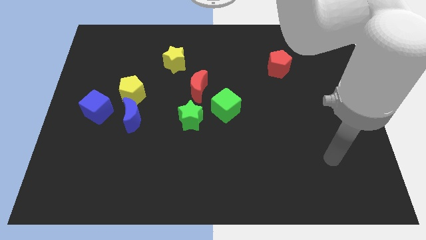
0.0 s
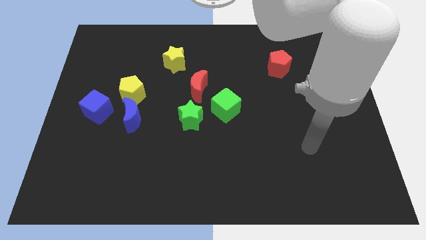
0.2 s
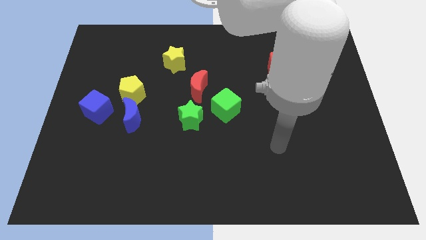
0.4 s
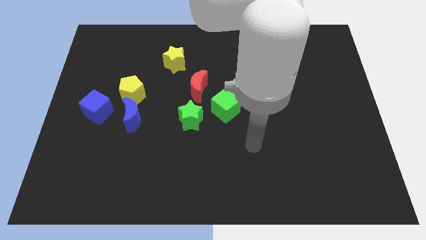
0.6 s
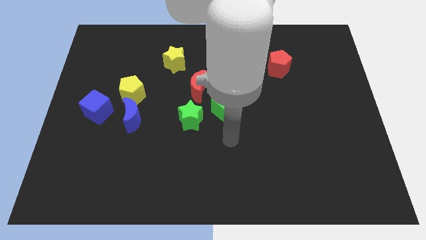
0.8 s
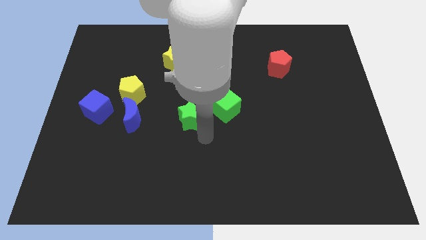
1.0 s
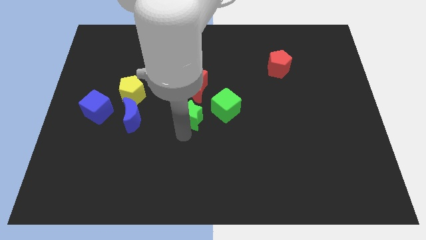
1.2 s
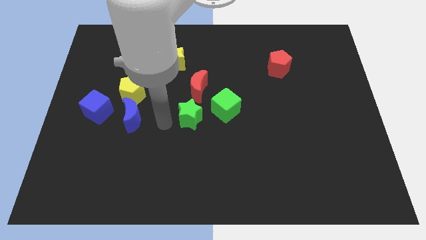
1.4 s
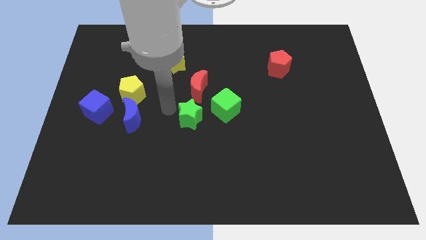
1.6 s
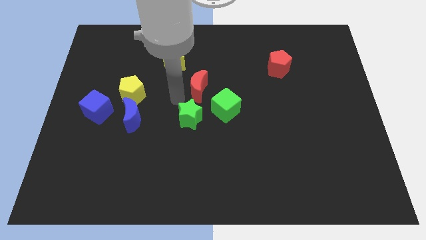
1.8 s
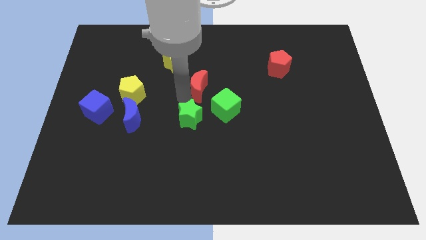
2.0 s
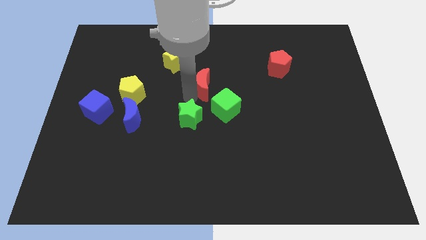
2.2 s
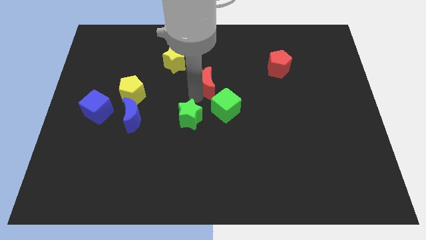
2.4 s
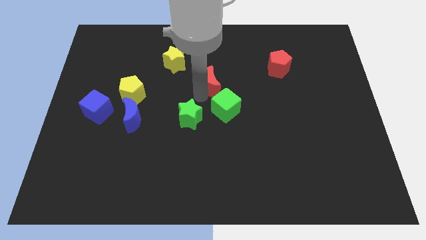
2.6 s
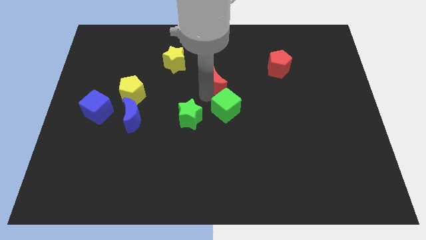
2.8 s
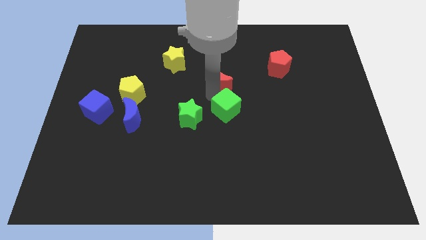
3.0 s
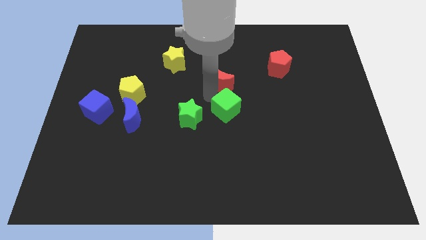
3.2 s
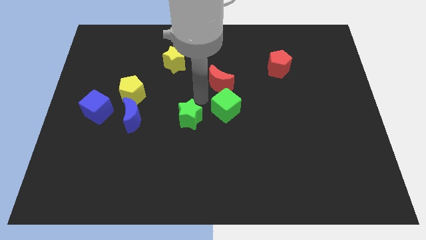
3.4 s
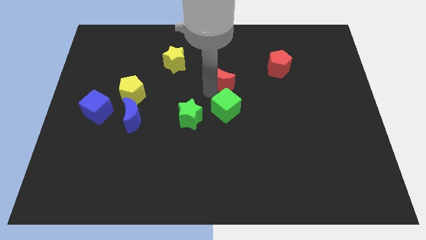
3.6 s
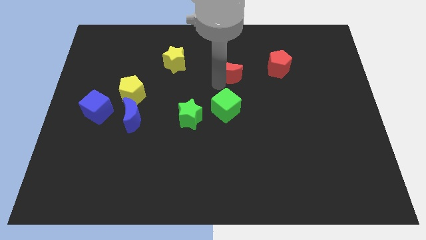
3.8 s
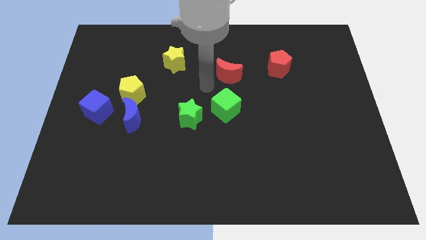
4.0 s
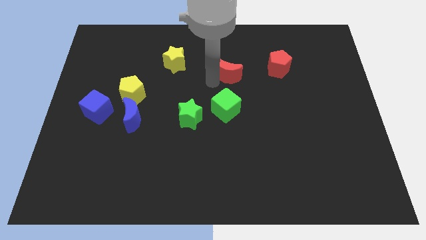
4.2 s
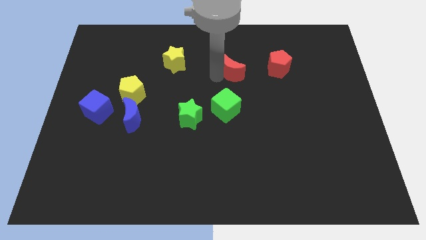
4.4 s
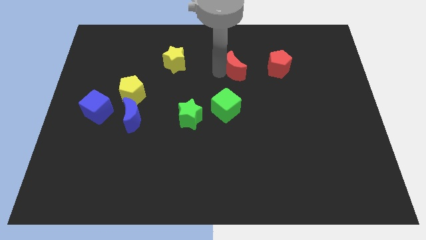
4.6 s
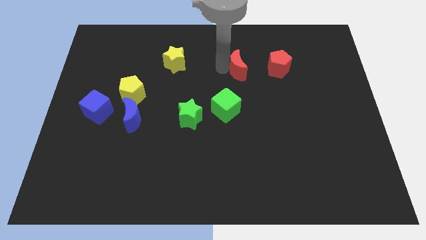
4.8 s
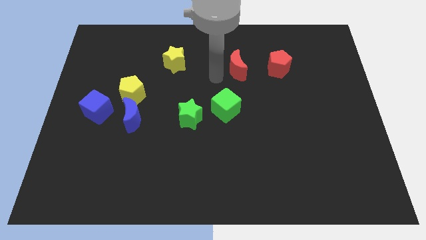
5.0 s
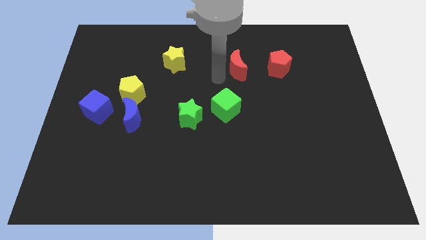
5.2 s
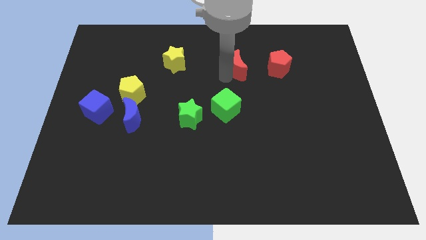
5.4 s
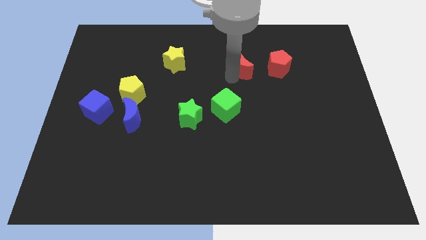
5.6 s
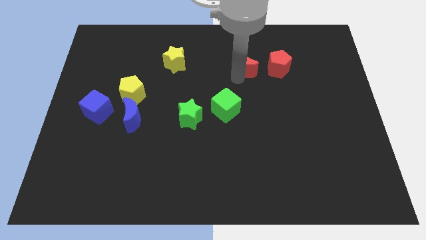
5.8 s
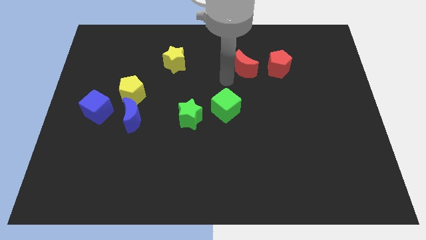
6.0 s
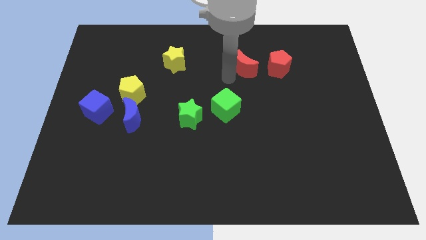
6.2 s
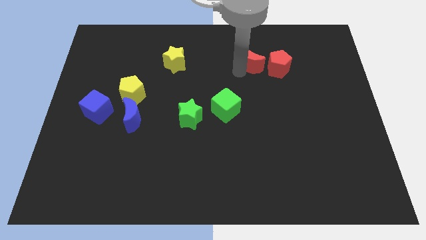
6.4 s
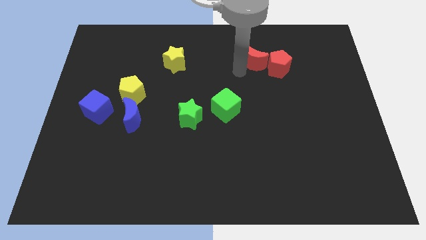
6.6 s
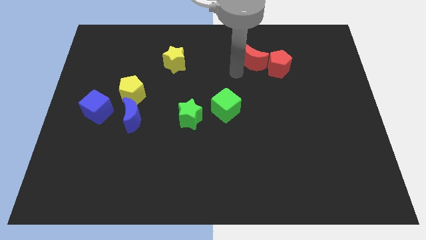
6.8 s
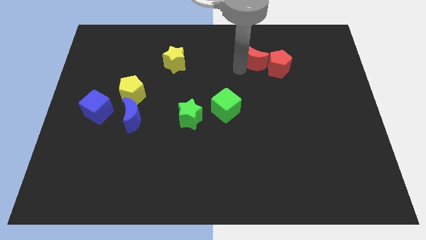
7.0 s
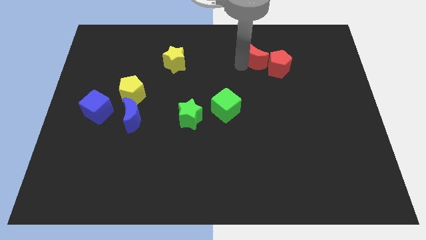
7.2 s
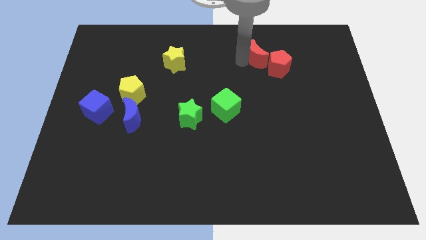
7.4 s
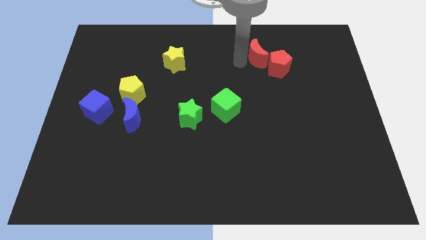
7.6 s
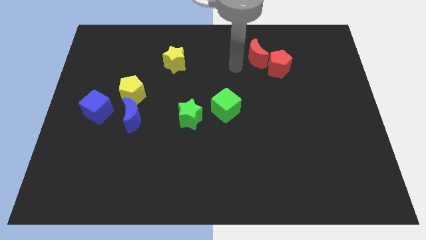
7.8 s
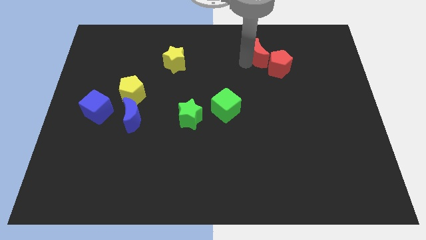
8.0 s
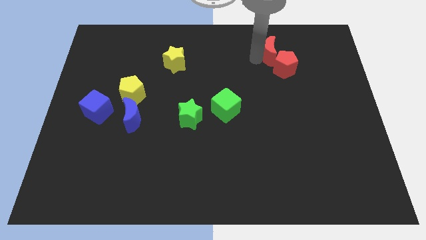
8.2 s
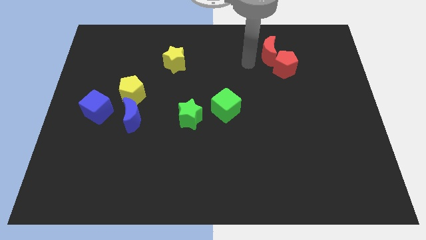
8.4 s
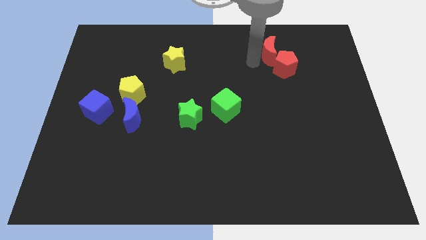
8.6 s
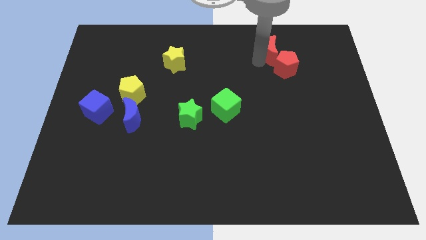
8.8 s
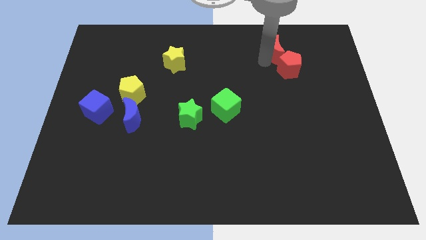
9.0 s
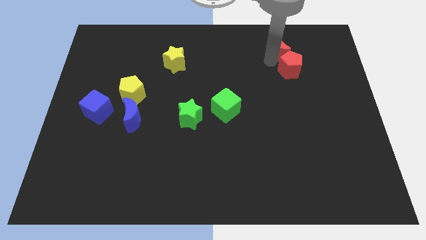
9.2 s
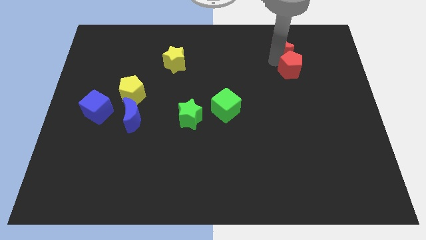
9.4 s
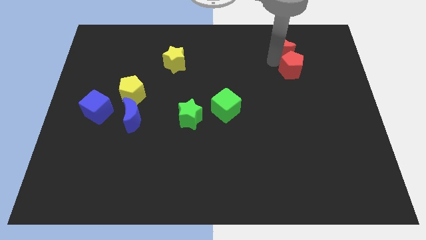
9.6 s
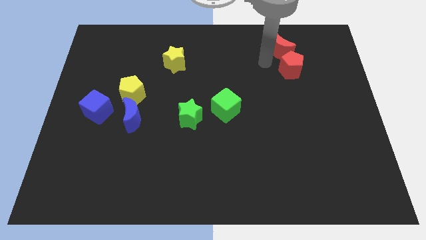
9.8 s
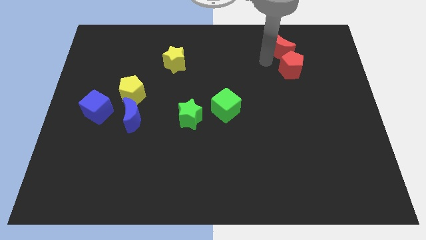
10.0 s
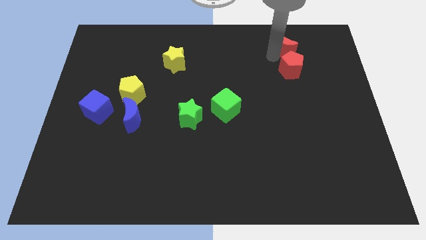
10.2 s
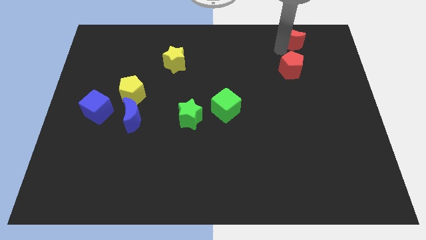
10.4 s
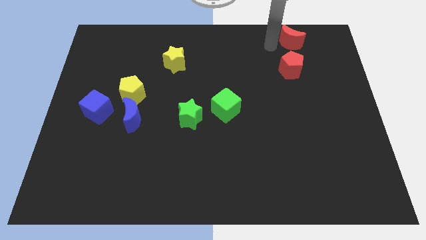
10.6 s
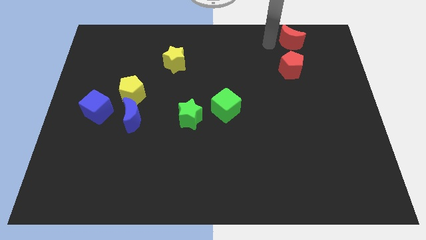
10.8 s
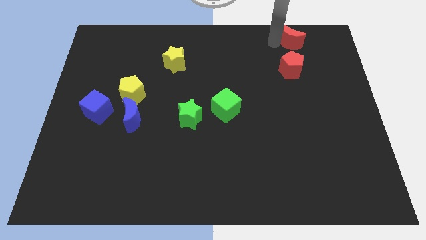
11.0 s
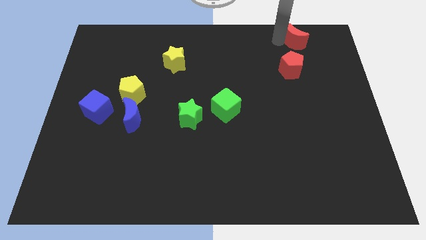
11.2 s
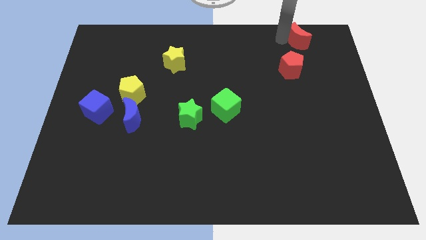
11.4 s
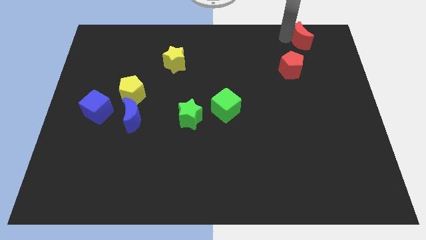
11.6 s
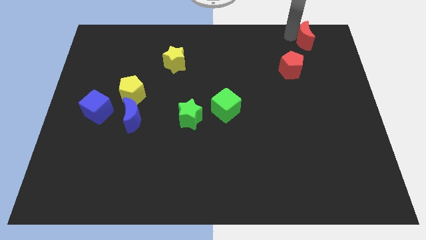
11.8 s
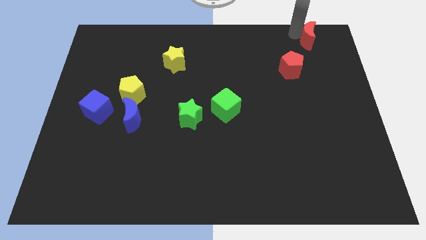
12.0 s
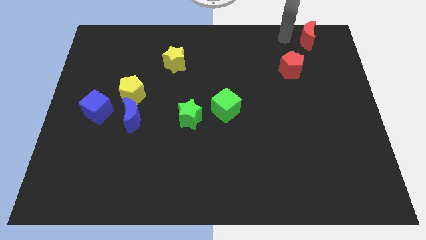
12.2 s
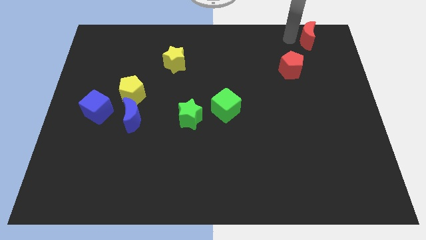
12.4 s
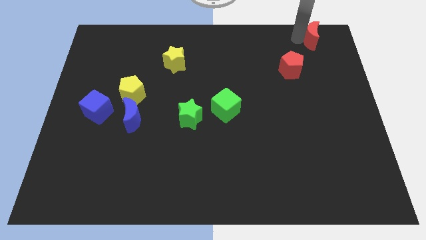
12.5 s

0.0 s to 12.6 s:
push the red moon to the upper right corner
